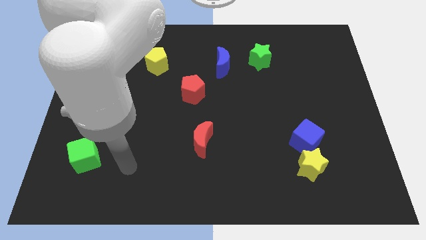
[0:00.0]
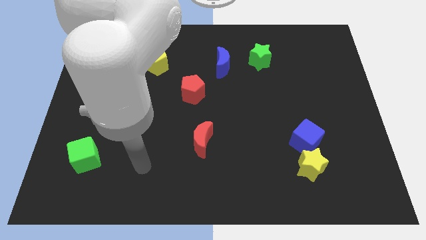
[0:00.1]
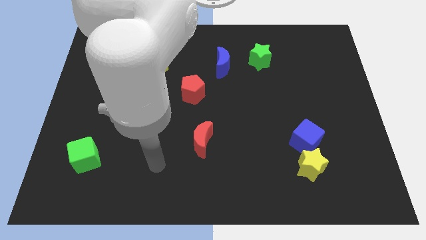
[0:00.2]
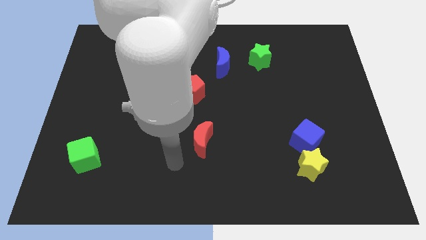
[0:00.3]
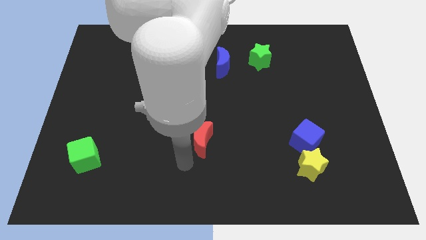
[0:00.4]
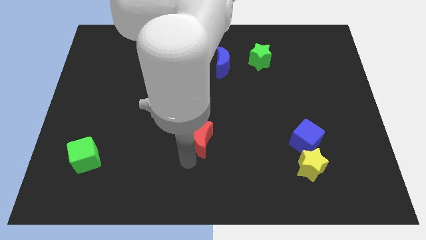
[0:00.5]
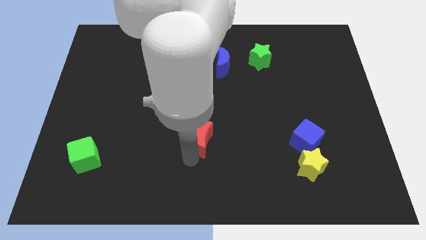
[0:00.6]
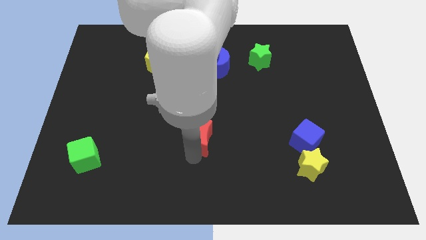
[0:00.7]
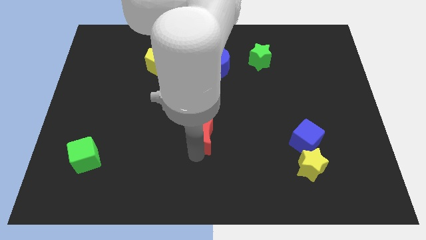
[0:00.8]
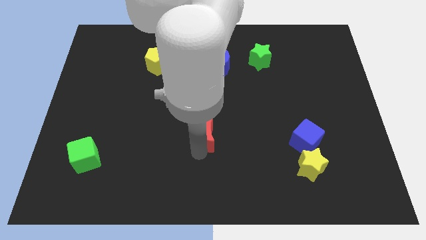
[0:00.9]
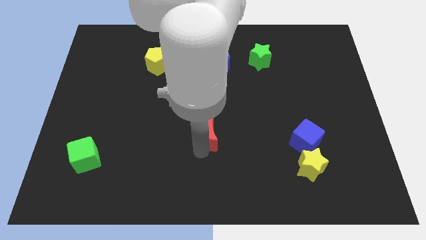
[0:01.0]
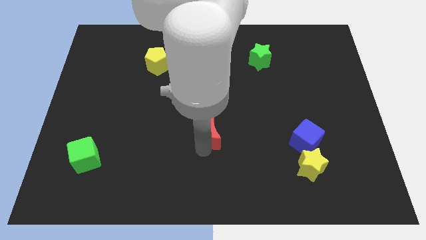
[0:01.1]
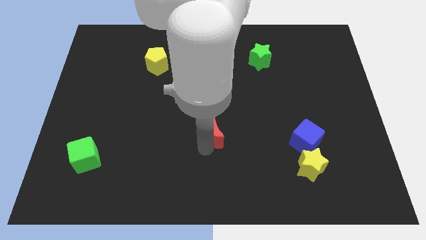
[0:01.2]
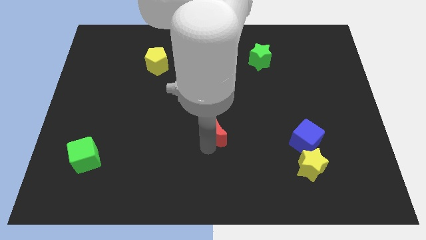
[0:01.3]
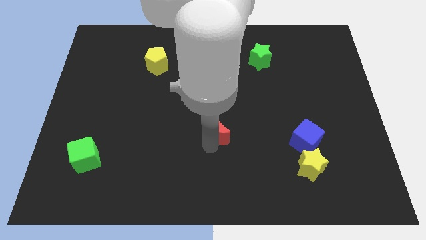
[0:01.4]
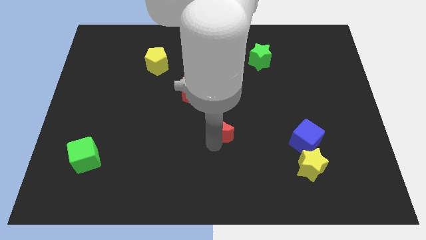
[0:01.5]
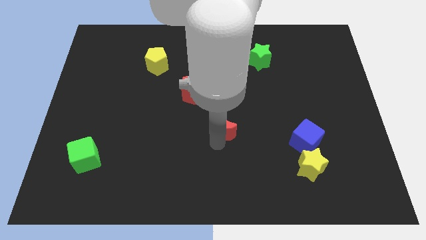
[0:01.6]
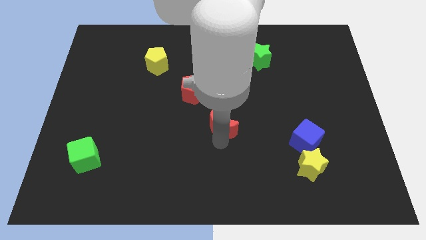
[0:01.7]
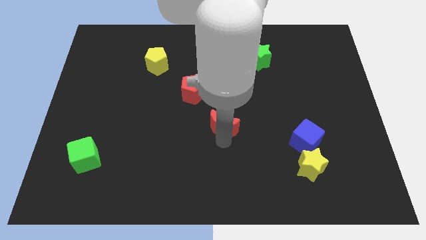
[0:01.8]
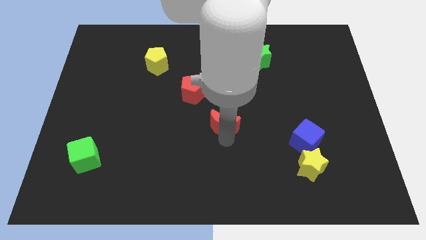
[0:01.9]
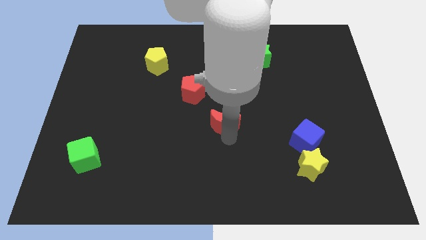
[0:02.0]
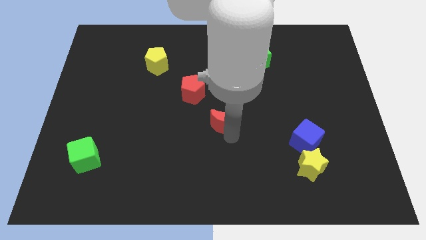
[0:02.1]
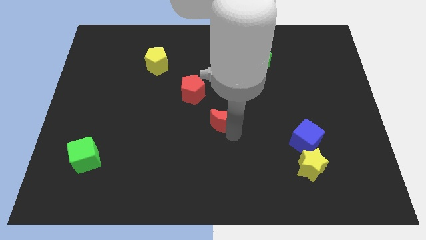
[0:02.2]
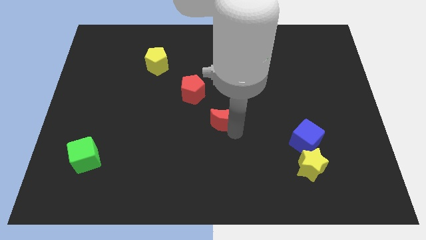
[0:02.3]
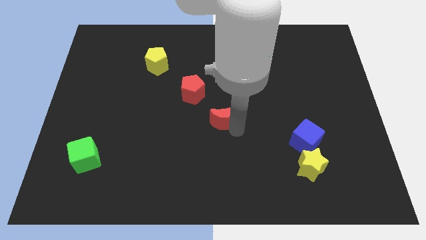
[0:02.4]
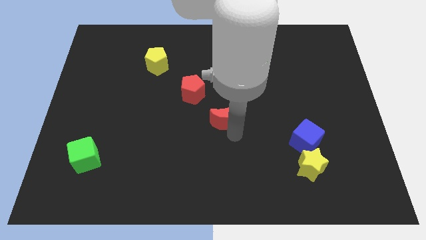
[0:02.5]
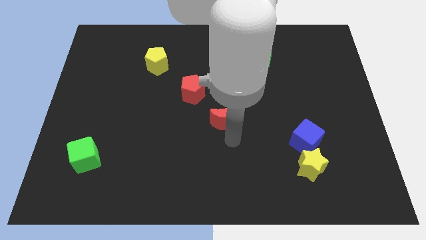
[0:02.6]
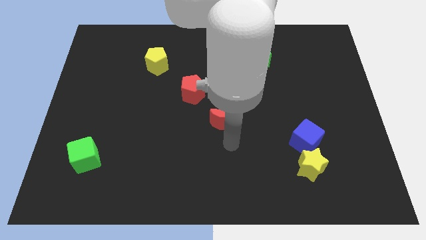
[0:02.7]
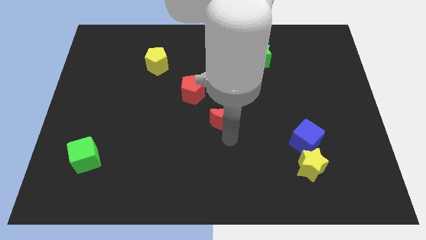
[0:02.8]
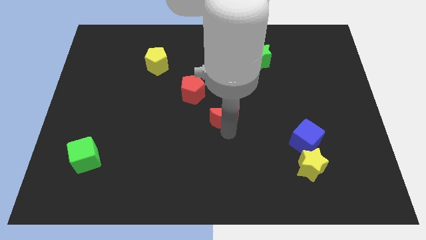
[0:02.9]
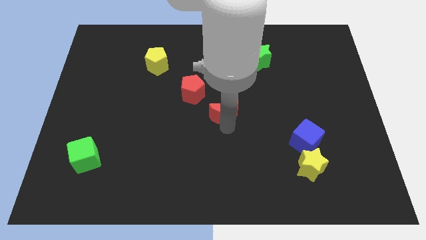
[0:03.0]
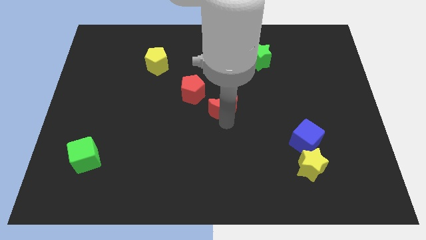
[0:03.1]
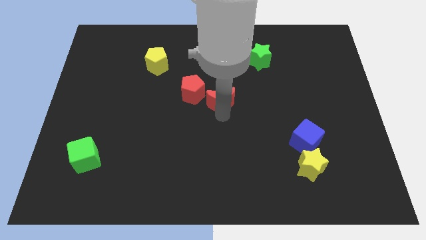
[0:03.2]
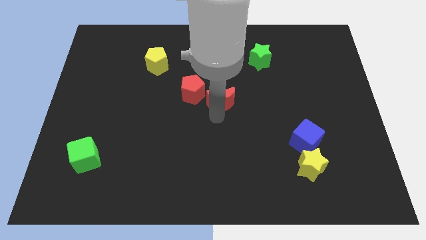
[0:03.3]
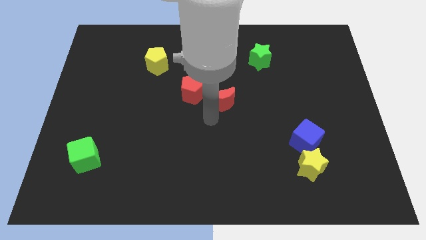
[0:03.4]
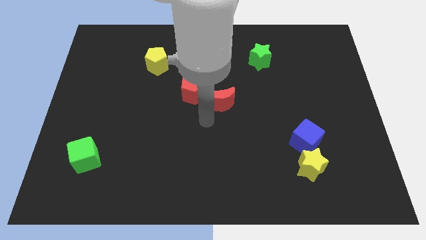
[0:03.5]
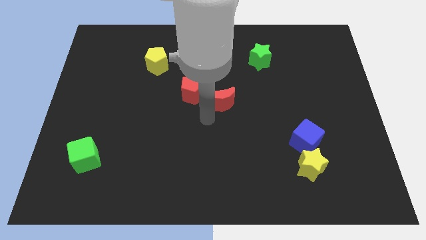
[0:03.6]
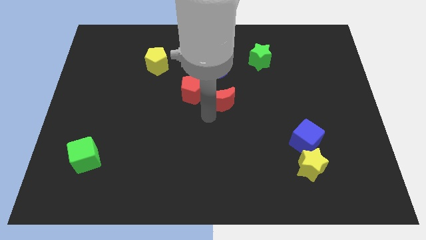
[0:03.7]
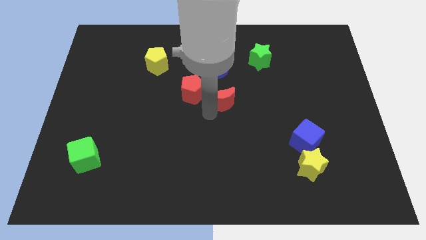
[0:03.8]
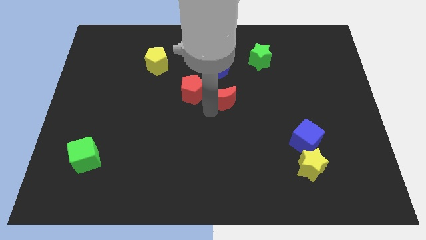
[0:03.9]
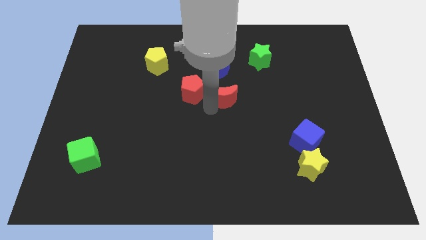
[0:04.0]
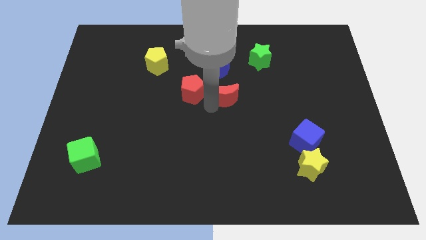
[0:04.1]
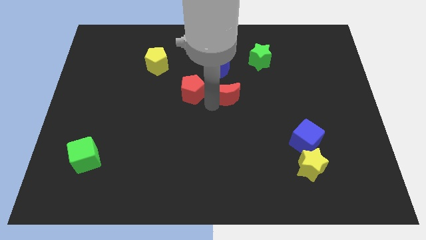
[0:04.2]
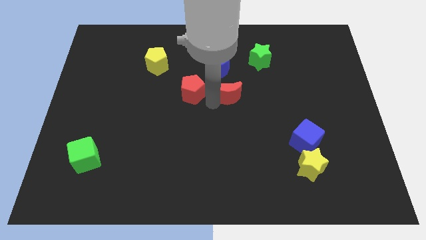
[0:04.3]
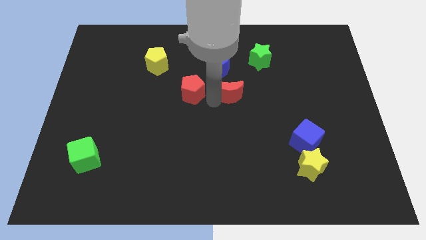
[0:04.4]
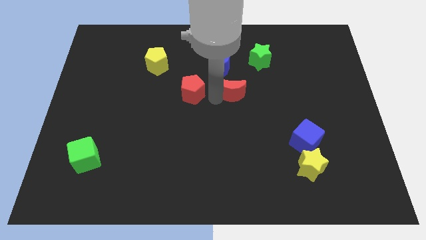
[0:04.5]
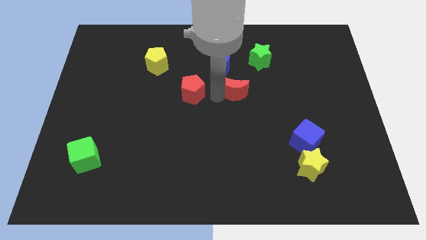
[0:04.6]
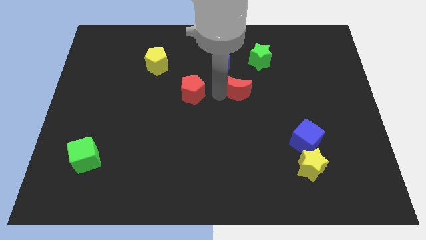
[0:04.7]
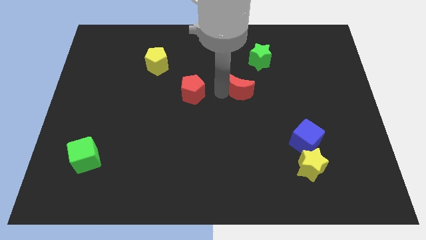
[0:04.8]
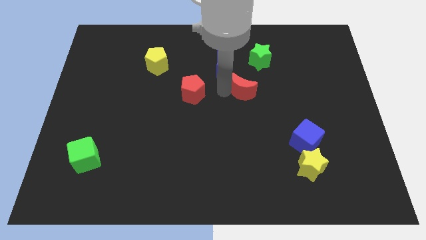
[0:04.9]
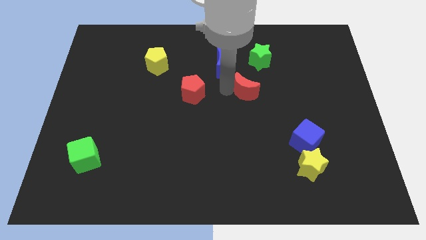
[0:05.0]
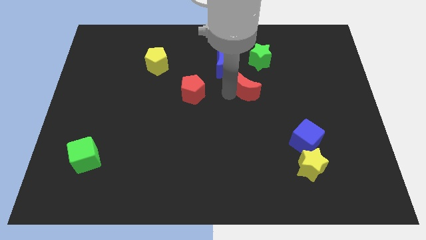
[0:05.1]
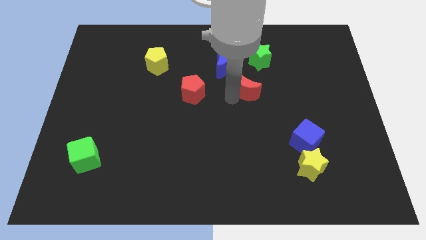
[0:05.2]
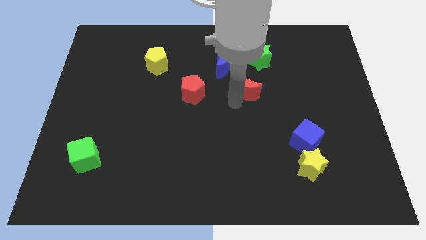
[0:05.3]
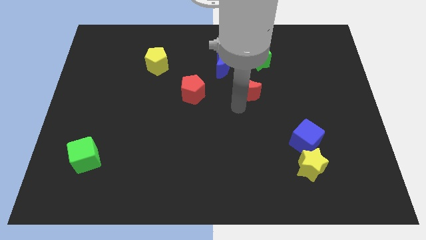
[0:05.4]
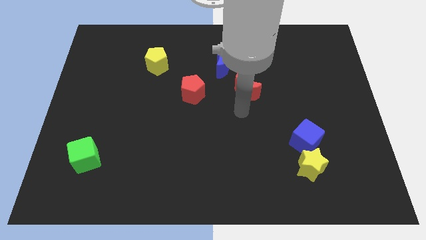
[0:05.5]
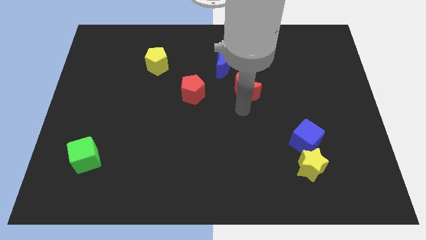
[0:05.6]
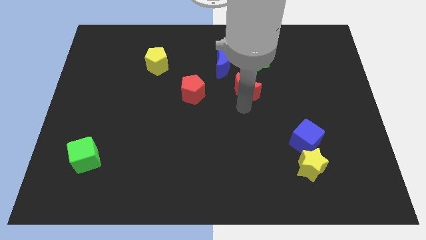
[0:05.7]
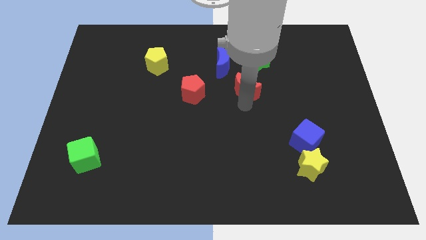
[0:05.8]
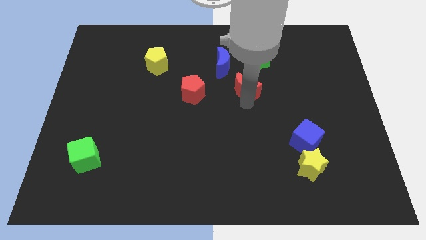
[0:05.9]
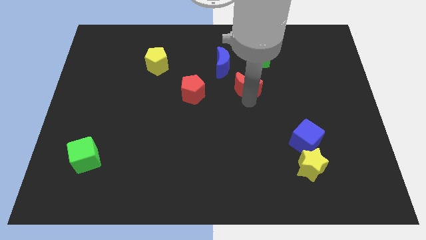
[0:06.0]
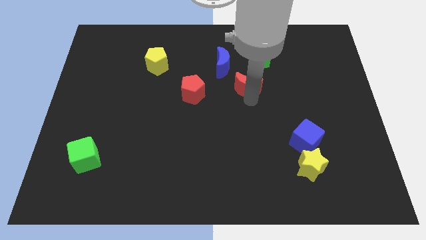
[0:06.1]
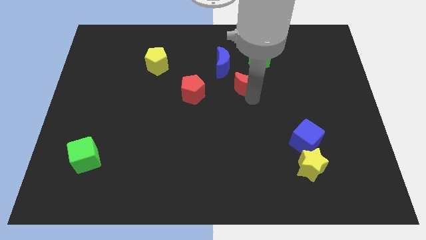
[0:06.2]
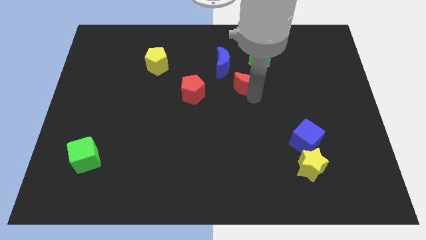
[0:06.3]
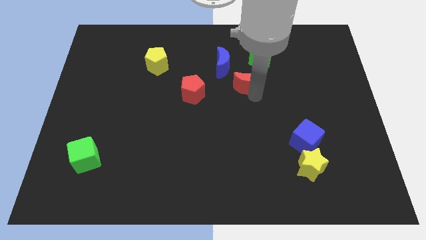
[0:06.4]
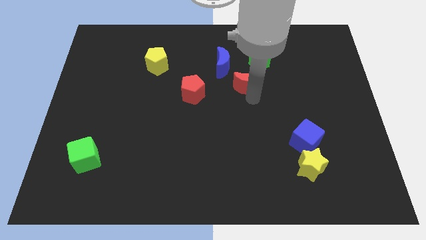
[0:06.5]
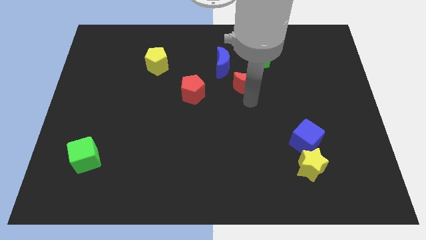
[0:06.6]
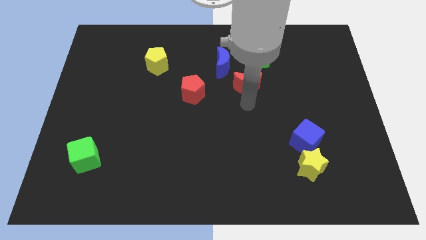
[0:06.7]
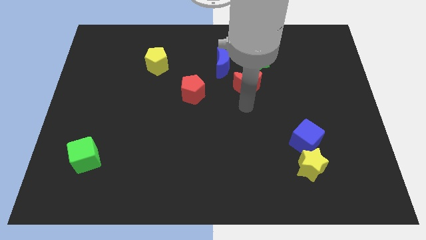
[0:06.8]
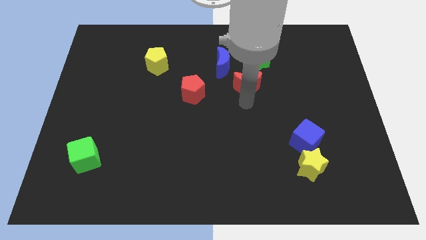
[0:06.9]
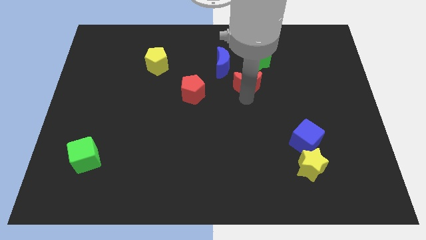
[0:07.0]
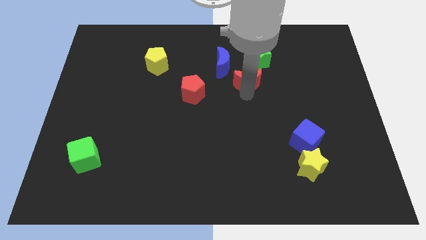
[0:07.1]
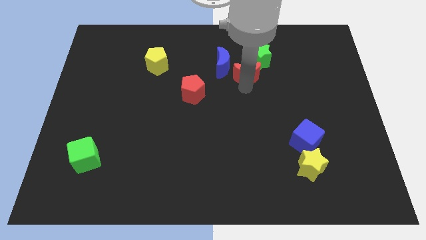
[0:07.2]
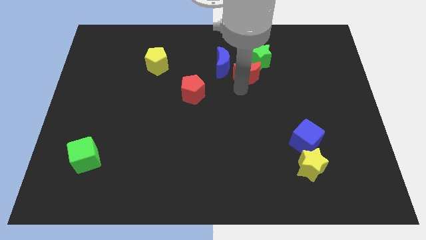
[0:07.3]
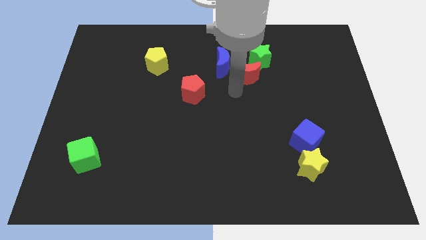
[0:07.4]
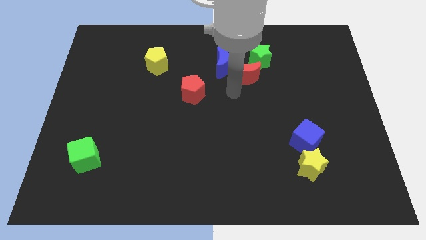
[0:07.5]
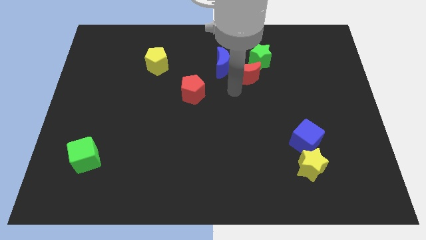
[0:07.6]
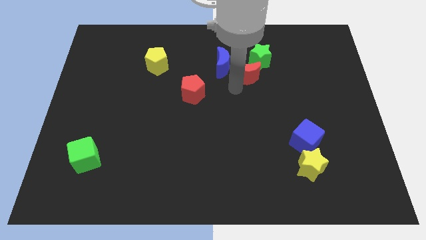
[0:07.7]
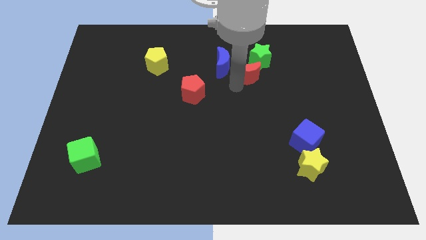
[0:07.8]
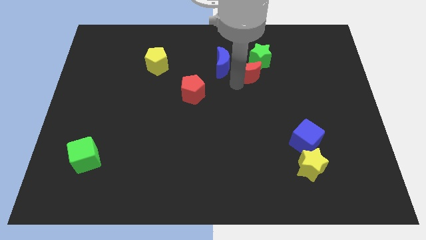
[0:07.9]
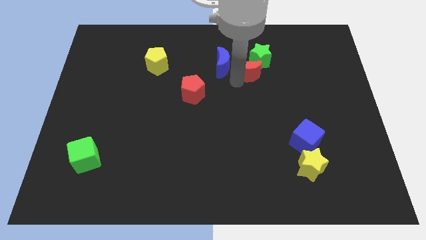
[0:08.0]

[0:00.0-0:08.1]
put the red moon towards the green star
